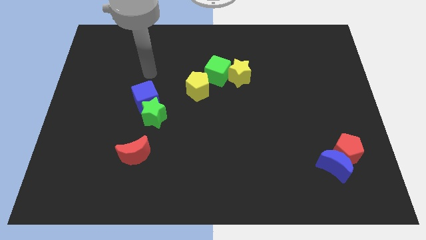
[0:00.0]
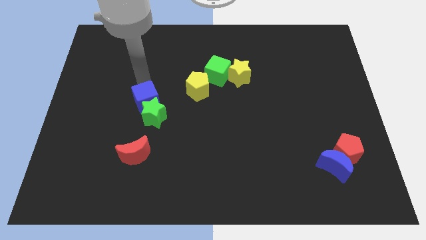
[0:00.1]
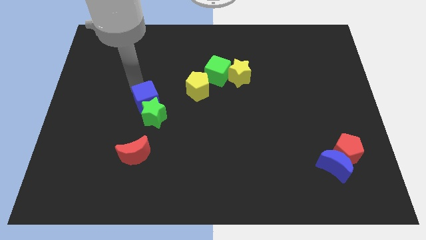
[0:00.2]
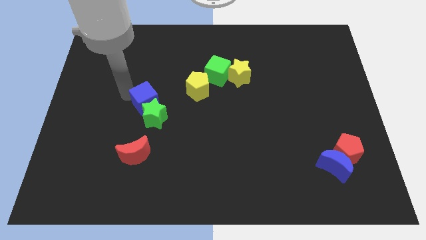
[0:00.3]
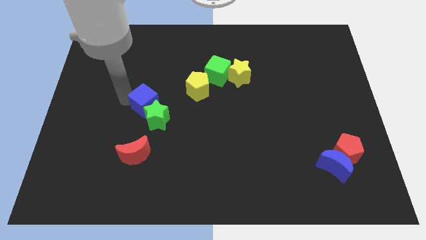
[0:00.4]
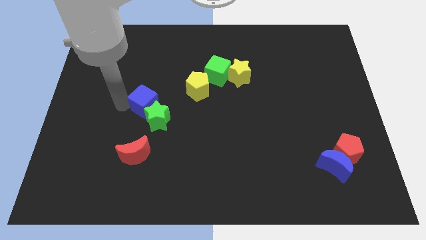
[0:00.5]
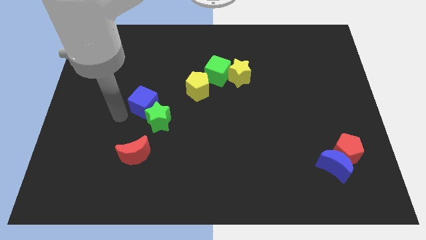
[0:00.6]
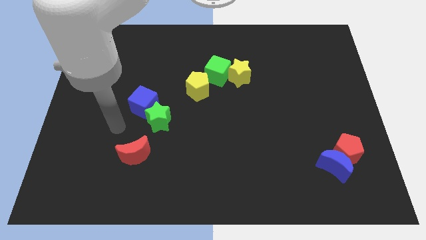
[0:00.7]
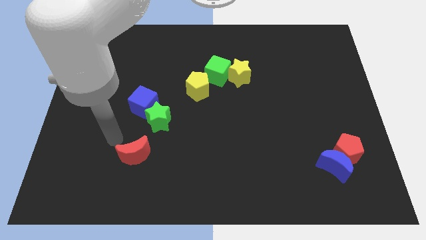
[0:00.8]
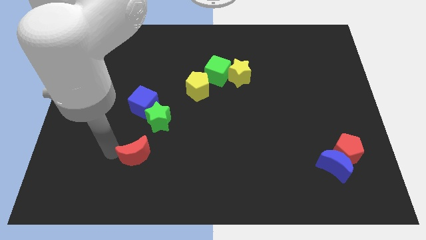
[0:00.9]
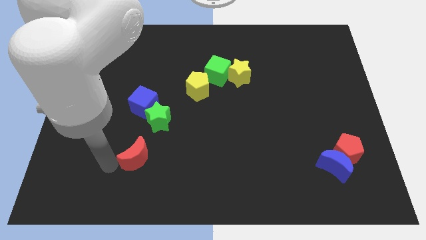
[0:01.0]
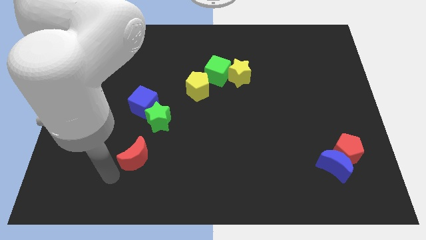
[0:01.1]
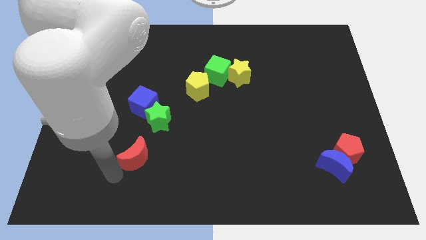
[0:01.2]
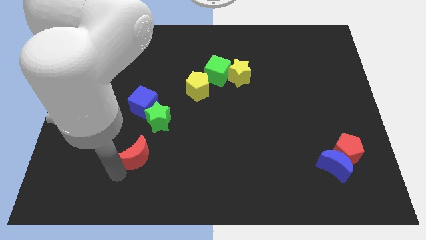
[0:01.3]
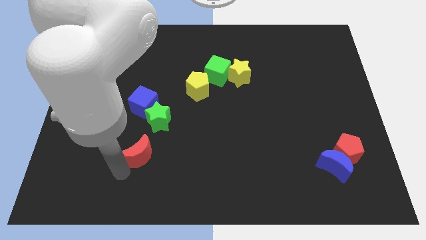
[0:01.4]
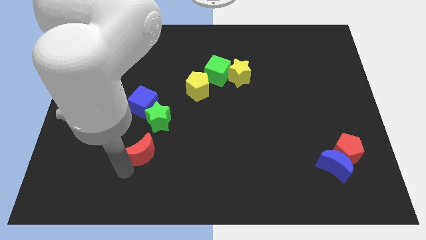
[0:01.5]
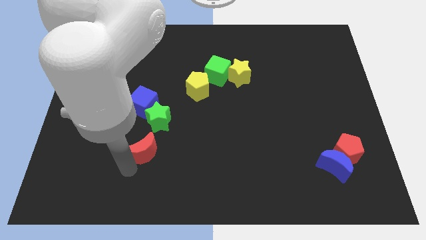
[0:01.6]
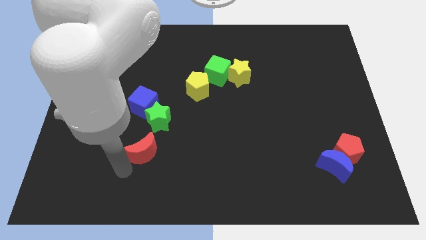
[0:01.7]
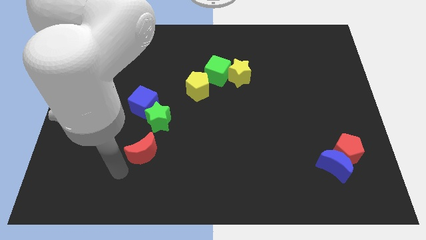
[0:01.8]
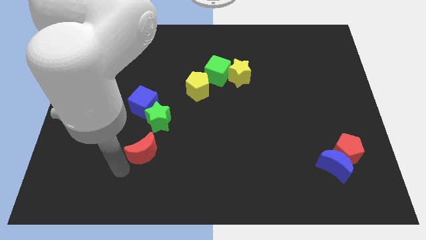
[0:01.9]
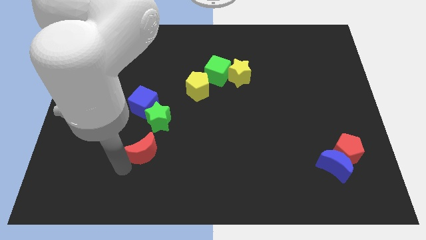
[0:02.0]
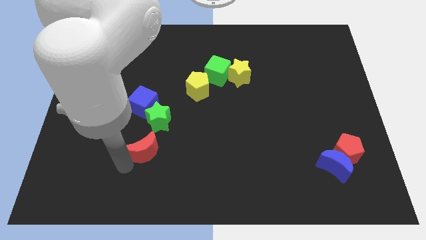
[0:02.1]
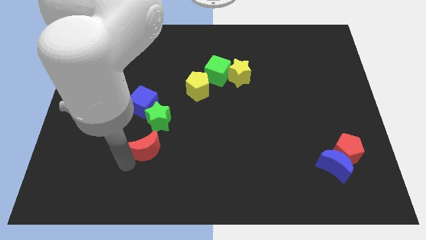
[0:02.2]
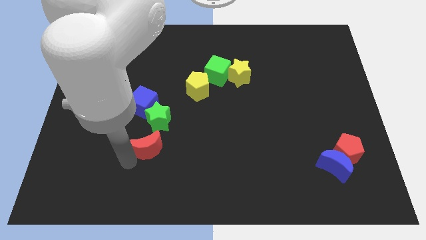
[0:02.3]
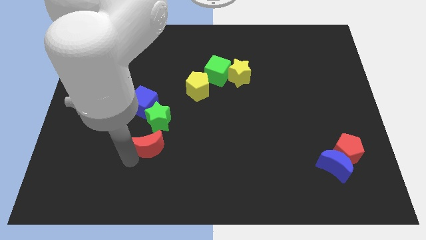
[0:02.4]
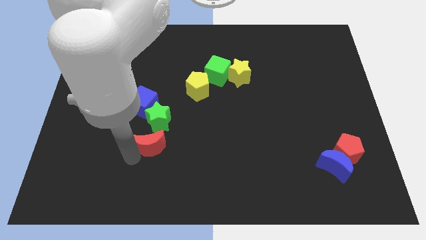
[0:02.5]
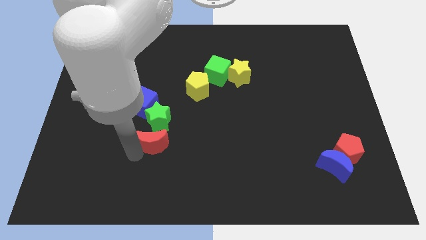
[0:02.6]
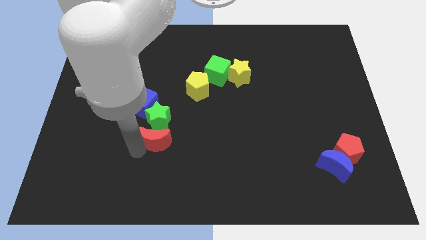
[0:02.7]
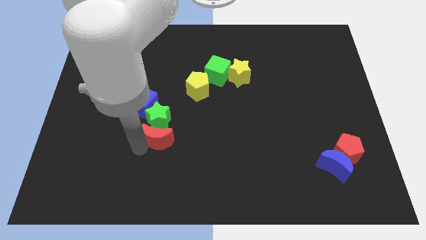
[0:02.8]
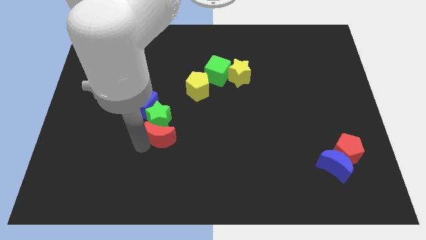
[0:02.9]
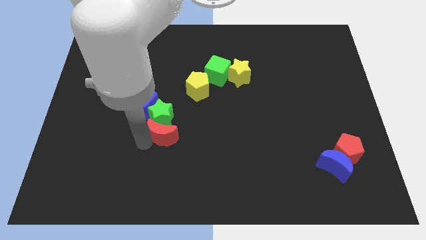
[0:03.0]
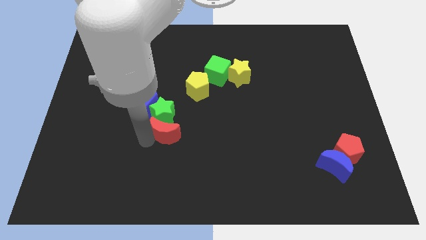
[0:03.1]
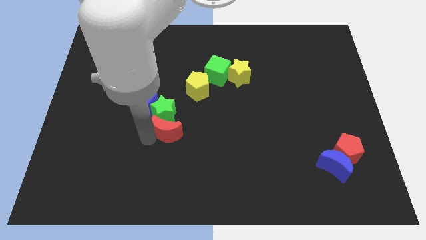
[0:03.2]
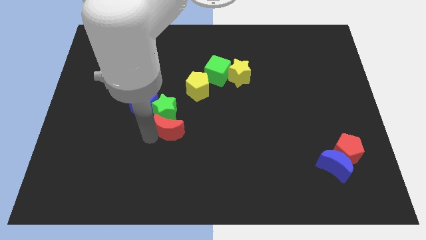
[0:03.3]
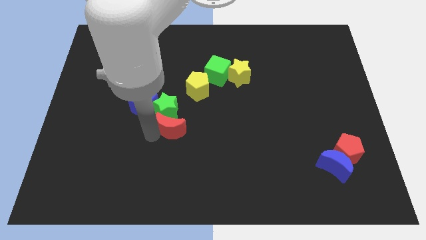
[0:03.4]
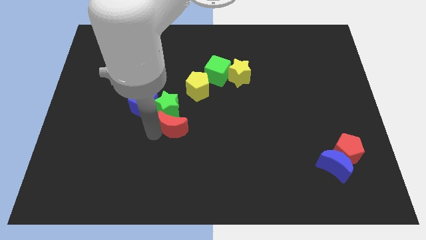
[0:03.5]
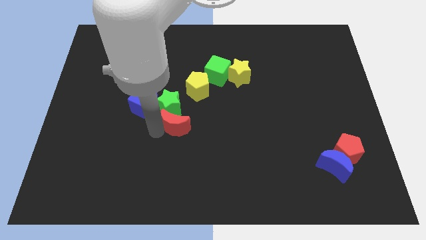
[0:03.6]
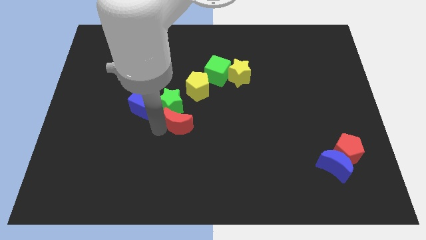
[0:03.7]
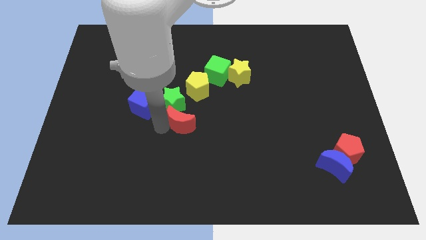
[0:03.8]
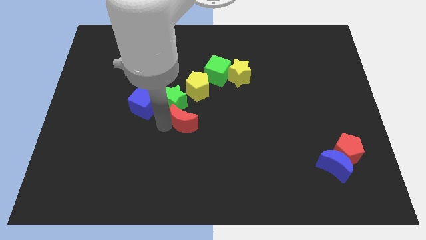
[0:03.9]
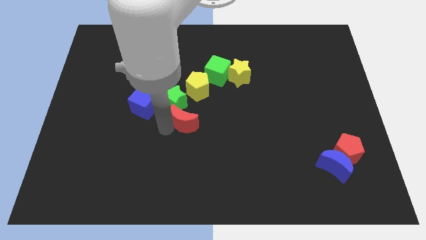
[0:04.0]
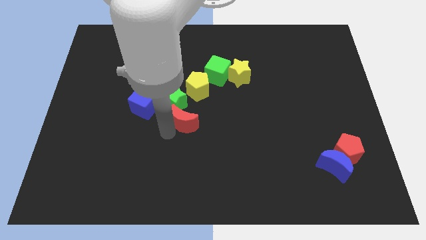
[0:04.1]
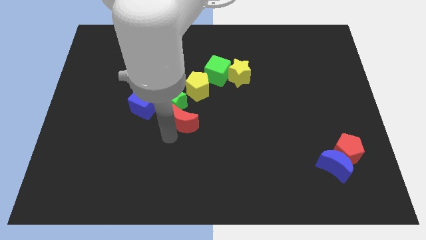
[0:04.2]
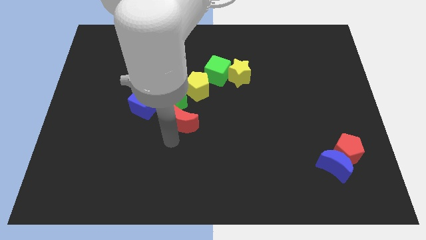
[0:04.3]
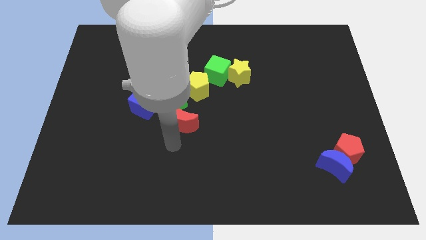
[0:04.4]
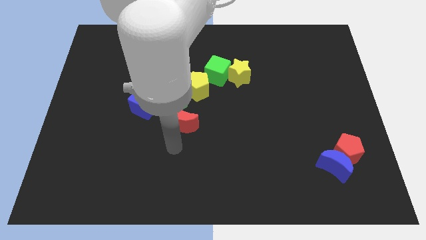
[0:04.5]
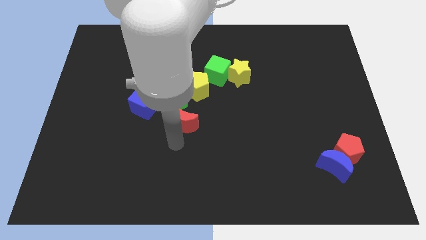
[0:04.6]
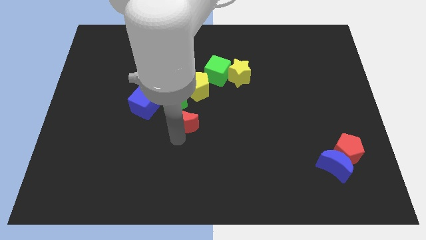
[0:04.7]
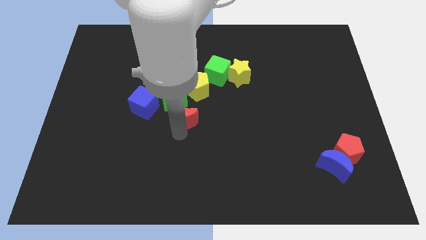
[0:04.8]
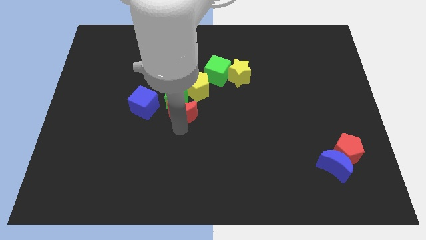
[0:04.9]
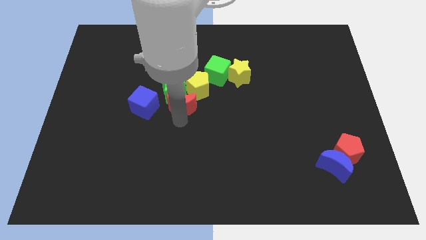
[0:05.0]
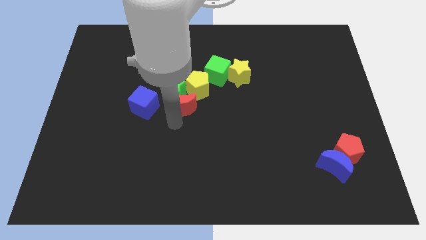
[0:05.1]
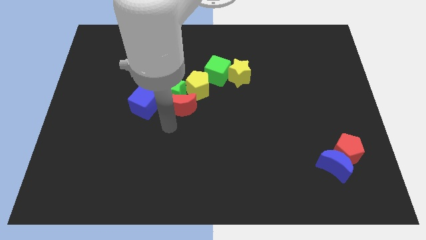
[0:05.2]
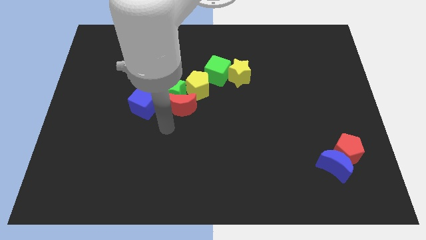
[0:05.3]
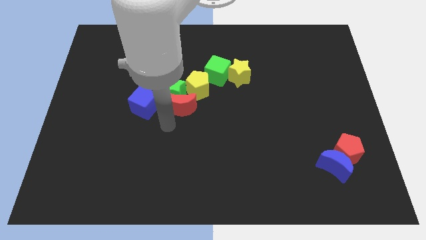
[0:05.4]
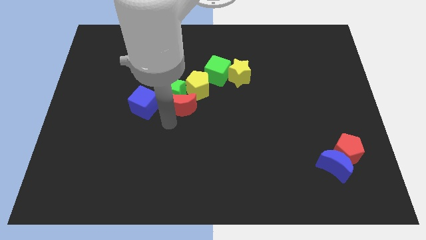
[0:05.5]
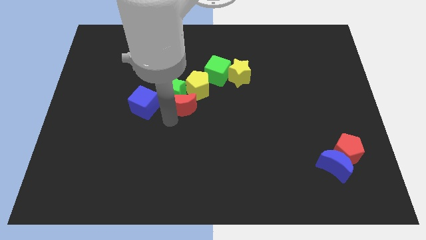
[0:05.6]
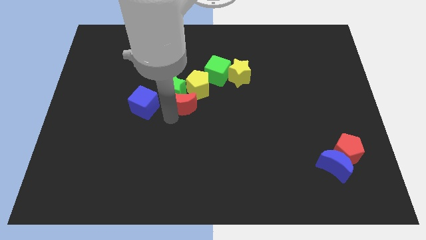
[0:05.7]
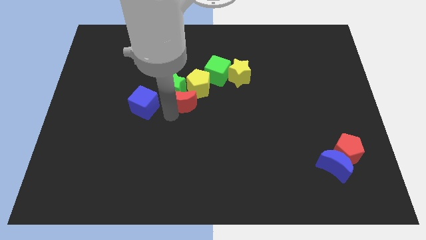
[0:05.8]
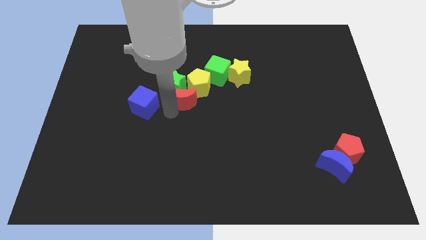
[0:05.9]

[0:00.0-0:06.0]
slide the red moon next to the yellow pentagon

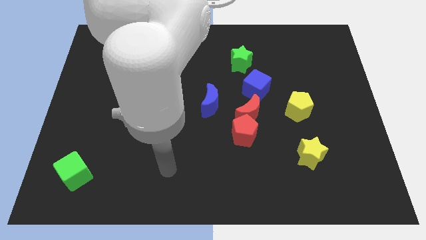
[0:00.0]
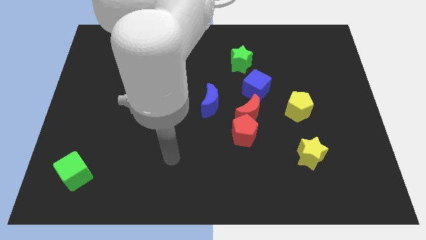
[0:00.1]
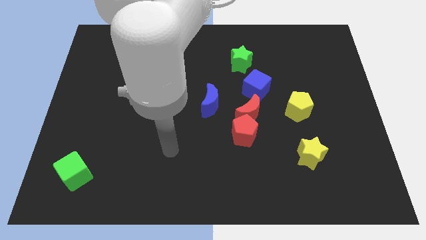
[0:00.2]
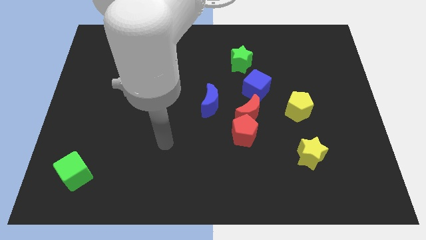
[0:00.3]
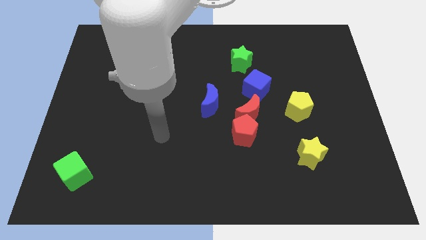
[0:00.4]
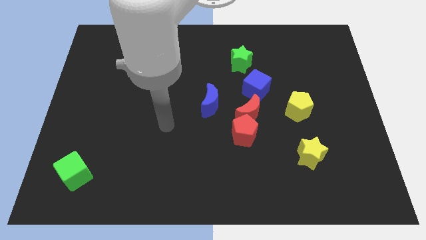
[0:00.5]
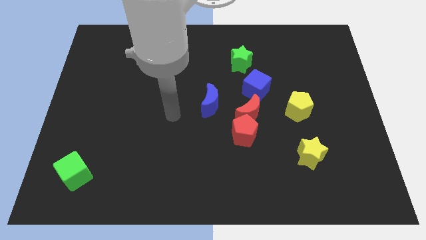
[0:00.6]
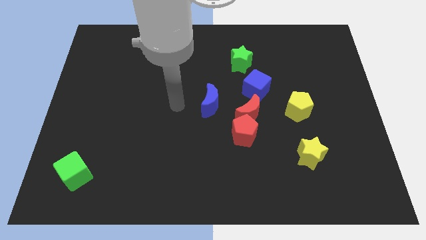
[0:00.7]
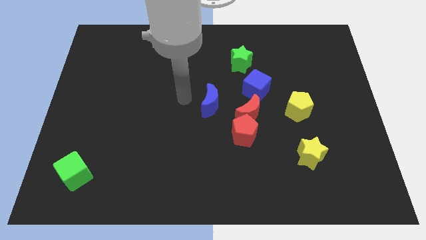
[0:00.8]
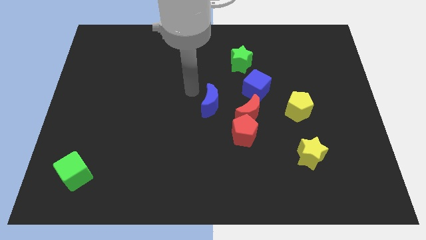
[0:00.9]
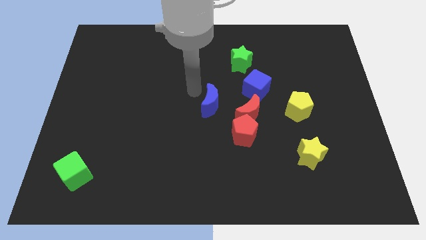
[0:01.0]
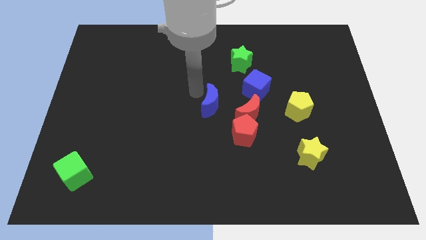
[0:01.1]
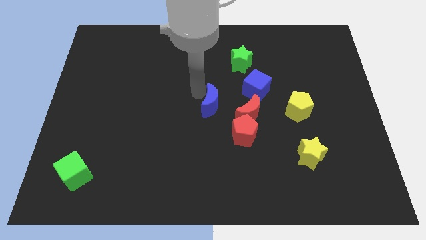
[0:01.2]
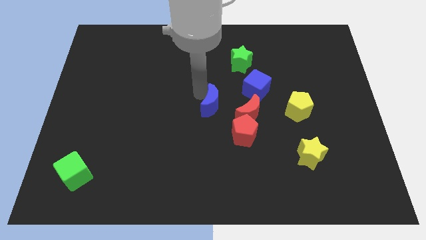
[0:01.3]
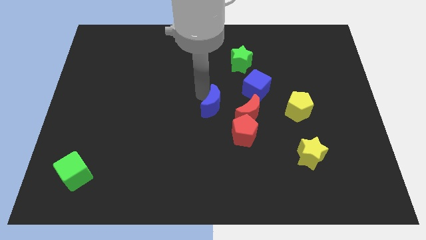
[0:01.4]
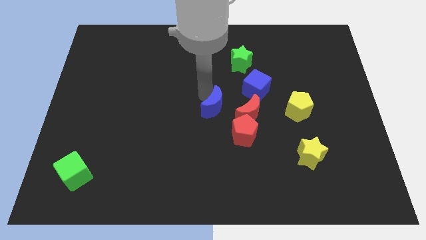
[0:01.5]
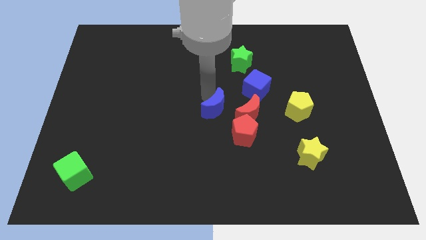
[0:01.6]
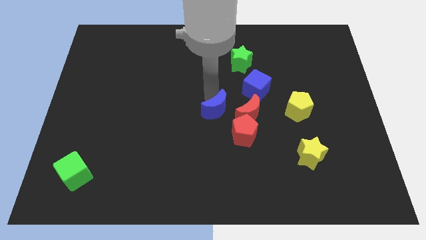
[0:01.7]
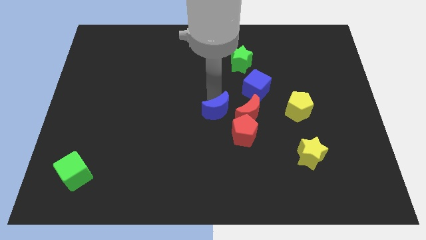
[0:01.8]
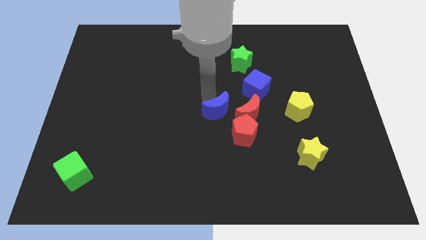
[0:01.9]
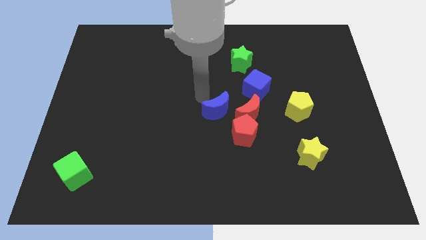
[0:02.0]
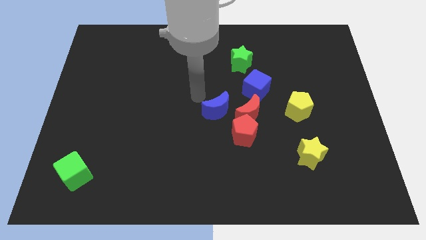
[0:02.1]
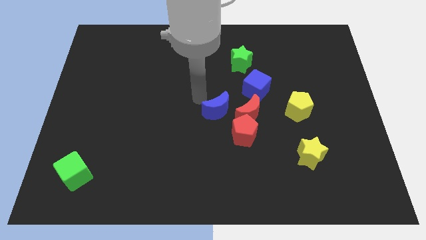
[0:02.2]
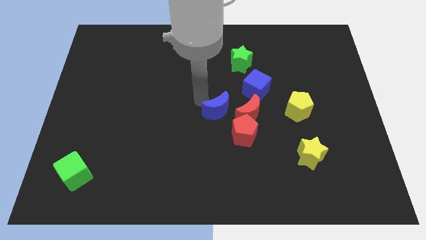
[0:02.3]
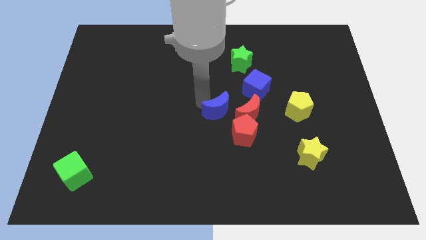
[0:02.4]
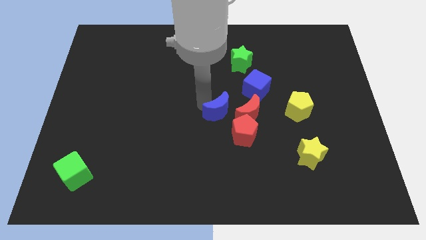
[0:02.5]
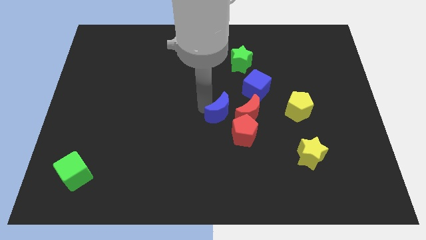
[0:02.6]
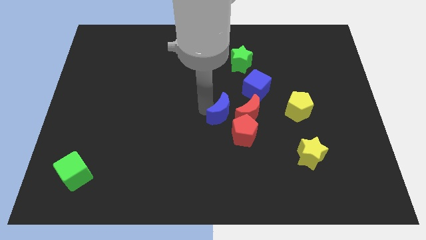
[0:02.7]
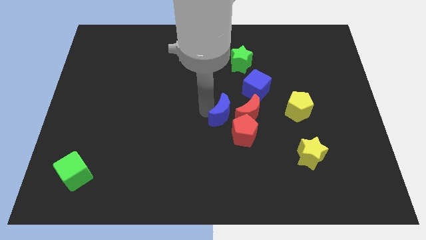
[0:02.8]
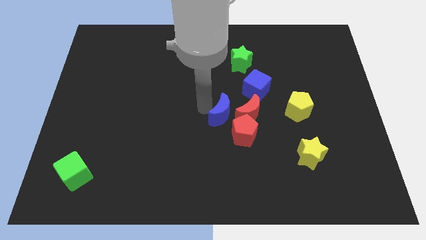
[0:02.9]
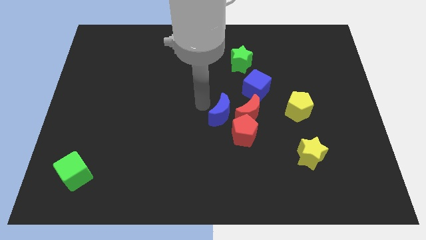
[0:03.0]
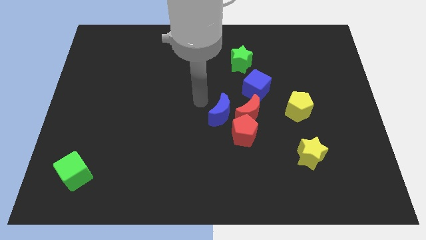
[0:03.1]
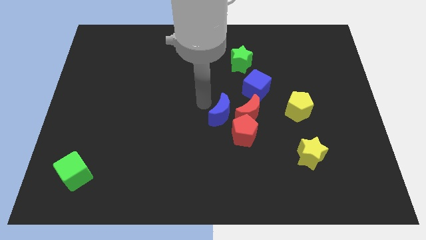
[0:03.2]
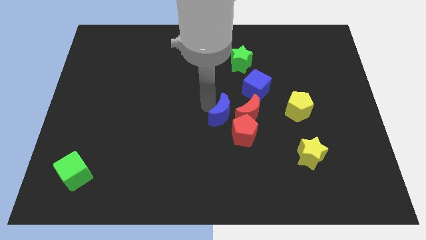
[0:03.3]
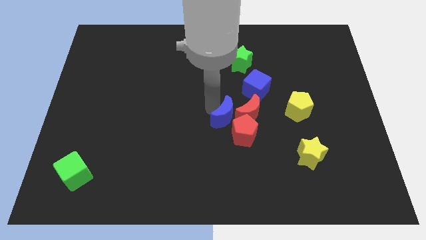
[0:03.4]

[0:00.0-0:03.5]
slide the blue moon to the red pentagon
